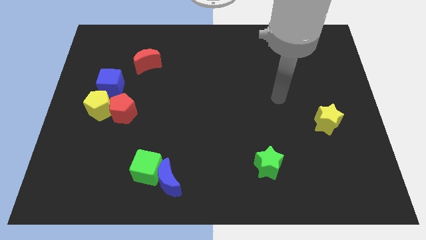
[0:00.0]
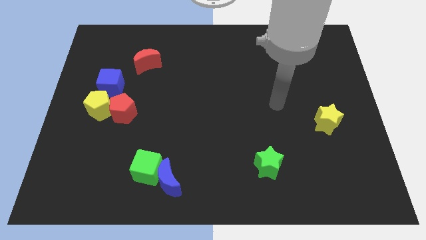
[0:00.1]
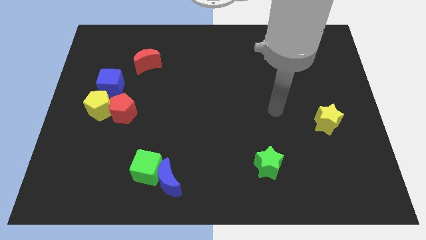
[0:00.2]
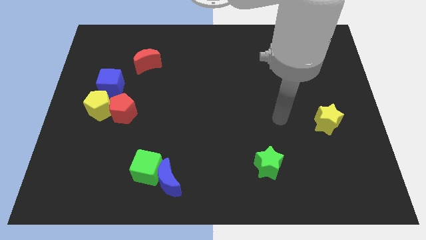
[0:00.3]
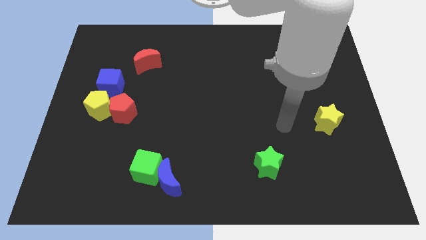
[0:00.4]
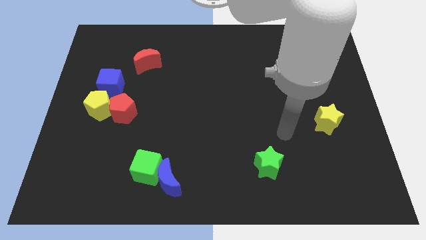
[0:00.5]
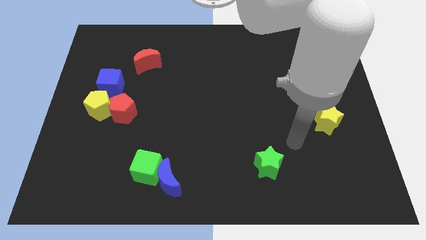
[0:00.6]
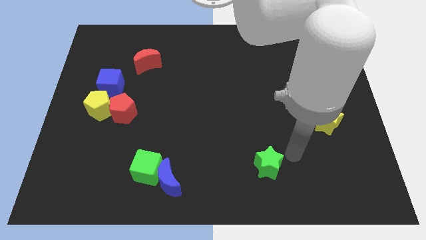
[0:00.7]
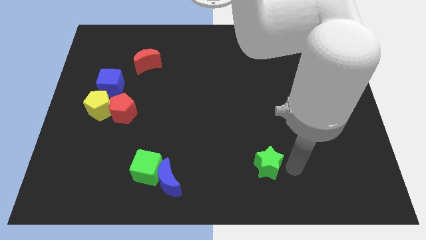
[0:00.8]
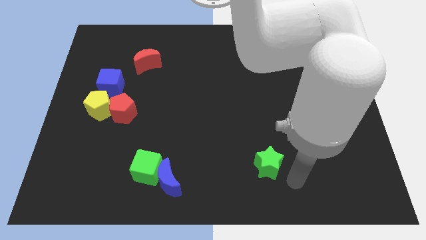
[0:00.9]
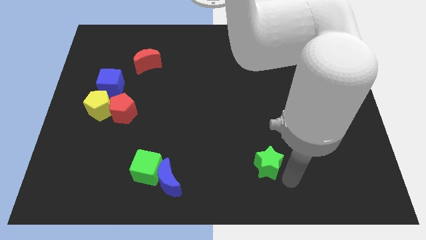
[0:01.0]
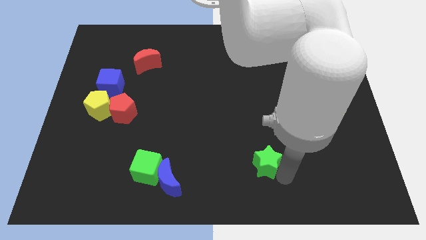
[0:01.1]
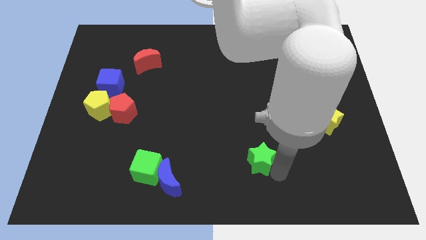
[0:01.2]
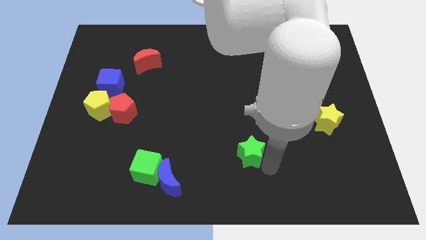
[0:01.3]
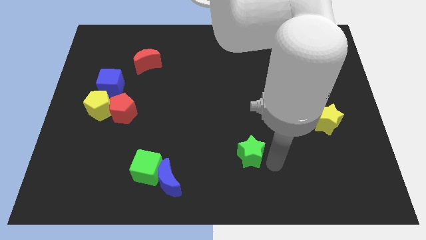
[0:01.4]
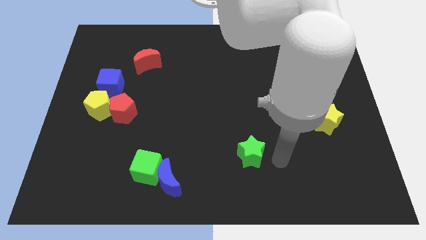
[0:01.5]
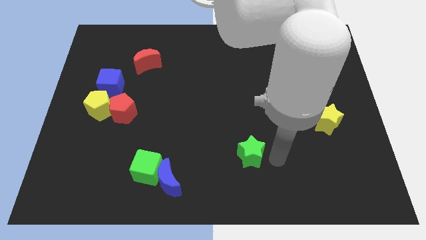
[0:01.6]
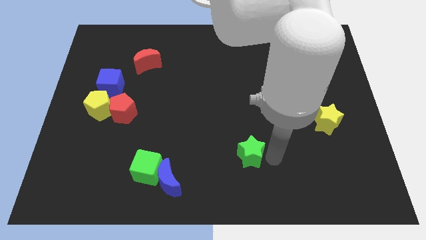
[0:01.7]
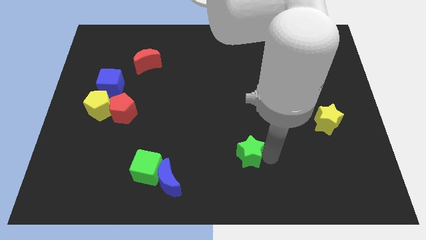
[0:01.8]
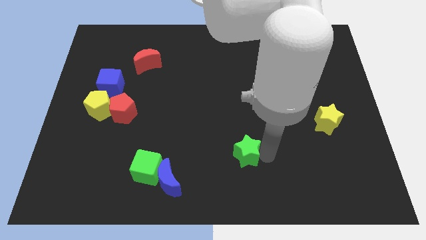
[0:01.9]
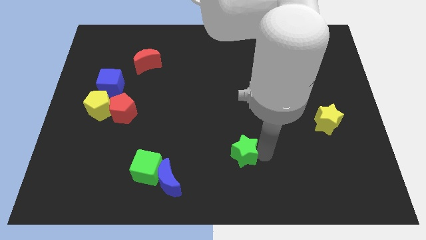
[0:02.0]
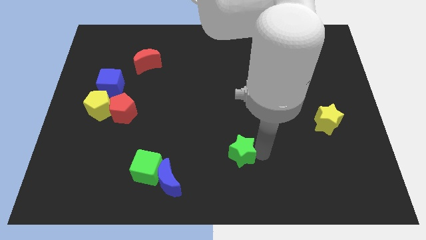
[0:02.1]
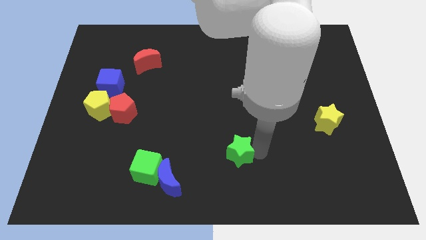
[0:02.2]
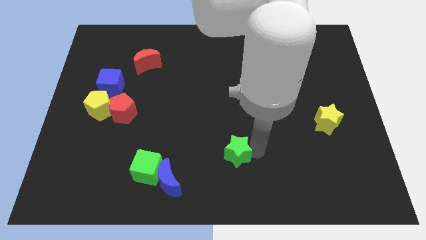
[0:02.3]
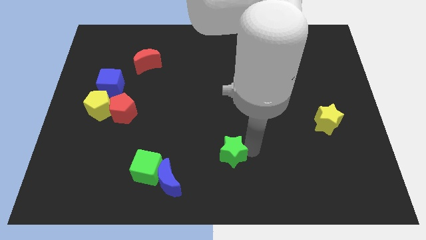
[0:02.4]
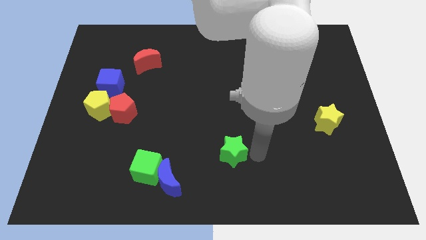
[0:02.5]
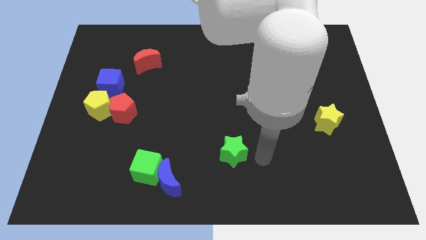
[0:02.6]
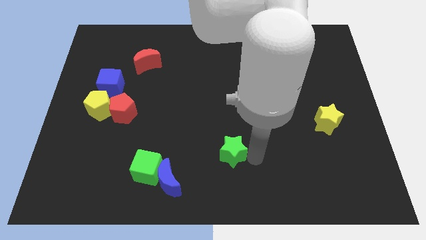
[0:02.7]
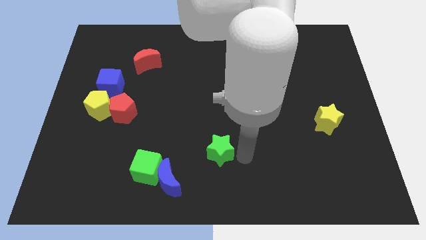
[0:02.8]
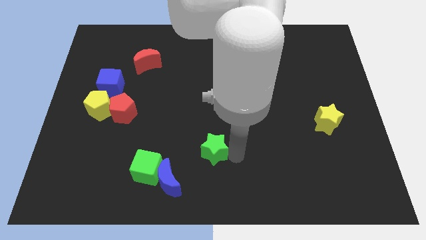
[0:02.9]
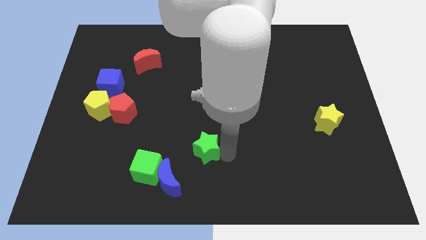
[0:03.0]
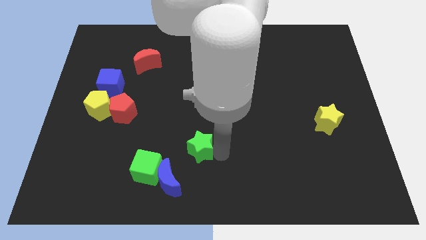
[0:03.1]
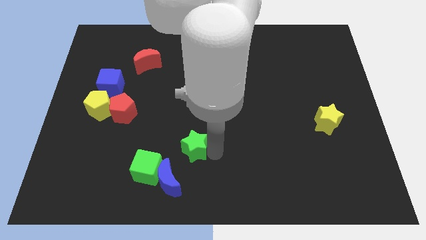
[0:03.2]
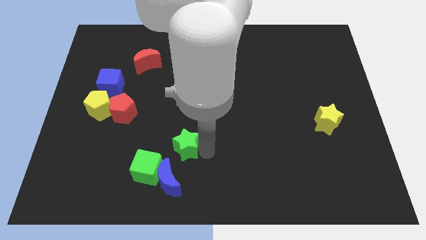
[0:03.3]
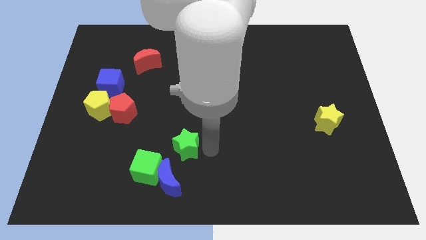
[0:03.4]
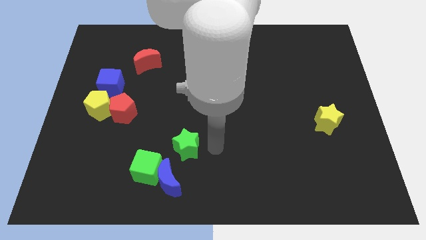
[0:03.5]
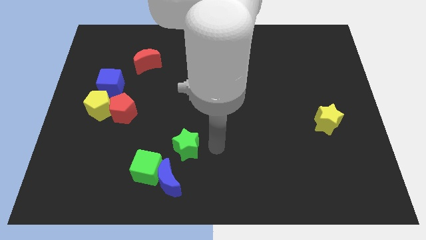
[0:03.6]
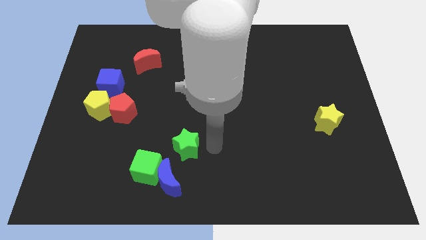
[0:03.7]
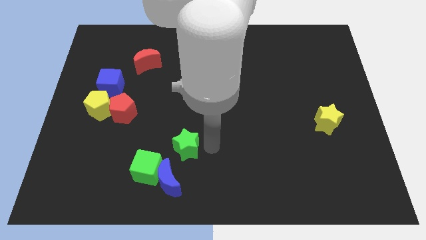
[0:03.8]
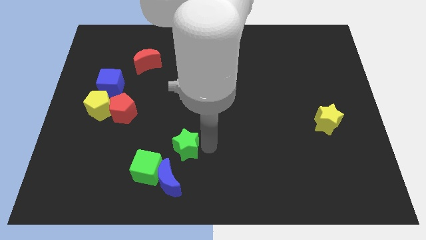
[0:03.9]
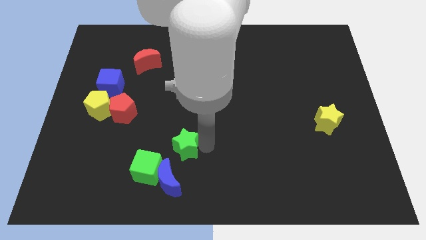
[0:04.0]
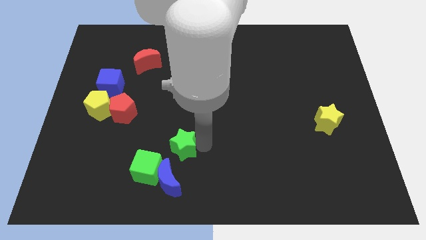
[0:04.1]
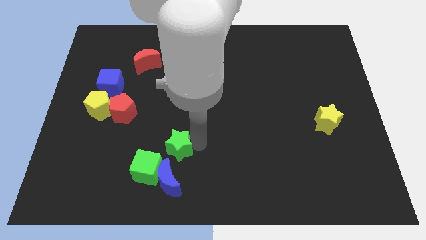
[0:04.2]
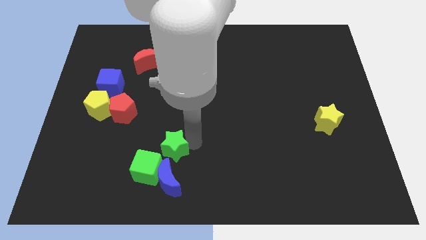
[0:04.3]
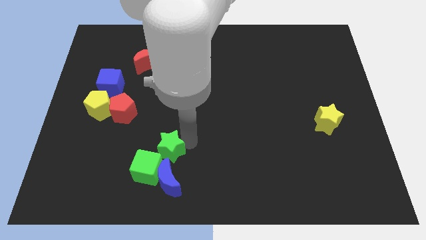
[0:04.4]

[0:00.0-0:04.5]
slide the green star to the left

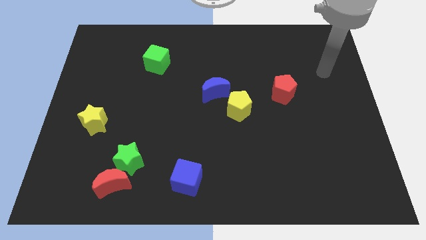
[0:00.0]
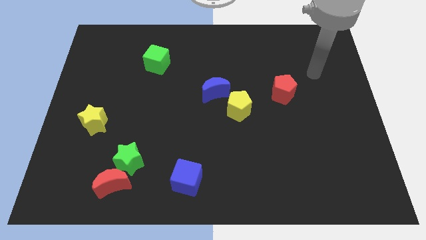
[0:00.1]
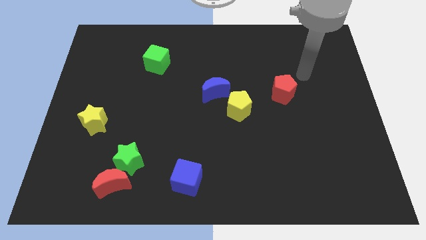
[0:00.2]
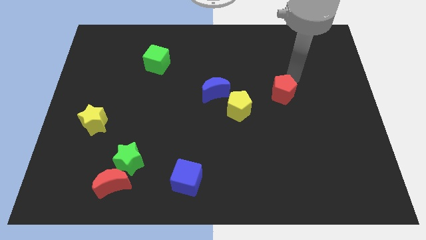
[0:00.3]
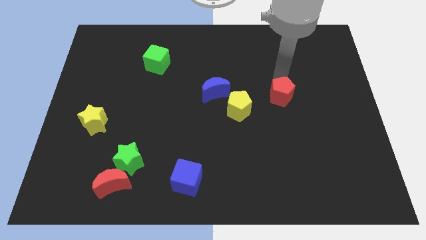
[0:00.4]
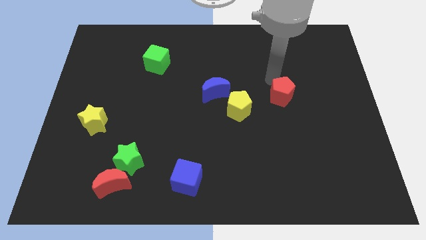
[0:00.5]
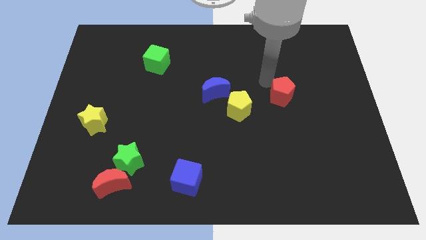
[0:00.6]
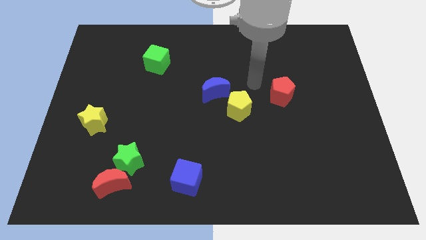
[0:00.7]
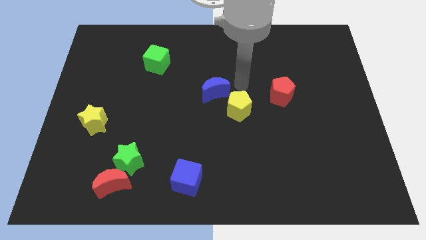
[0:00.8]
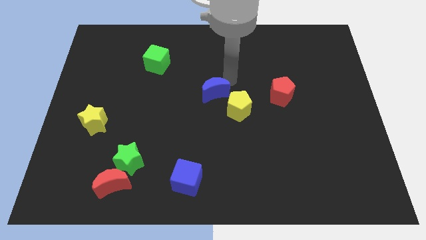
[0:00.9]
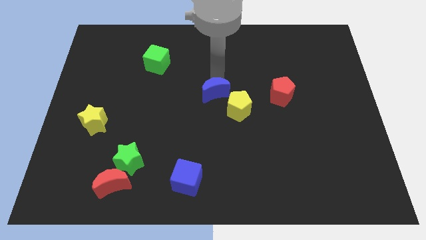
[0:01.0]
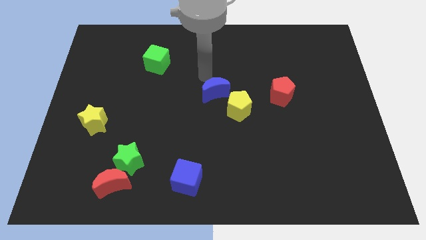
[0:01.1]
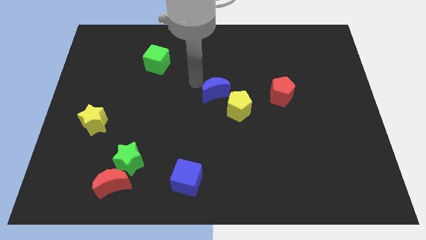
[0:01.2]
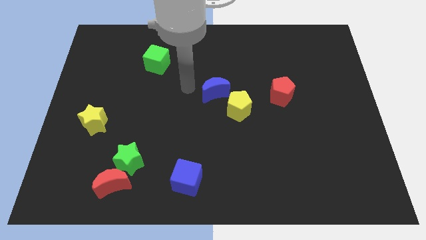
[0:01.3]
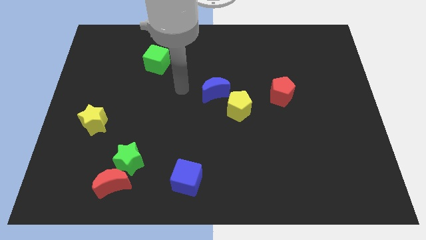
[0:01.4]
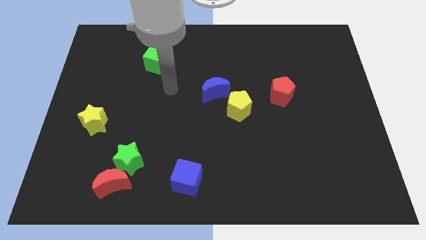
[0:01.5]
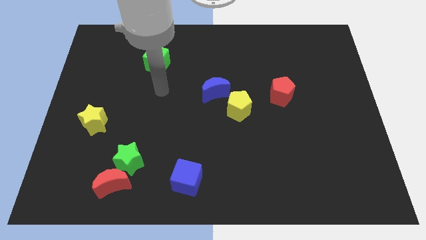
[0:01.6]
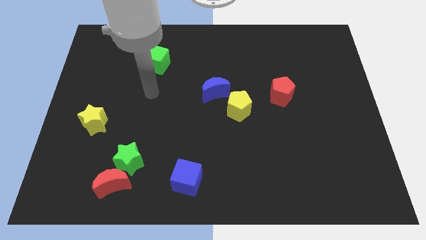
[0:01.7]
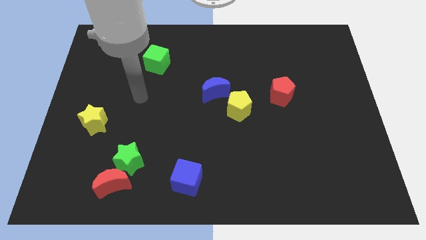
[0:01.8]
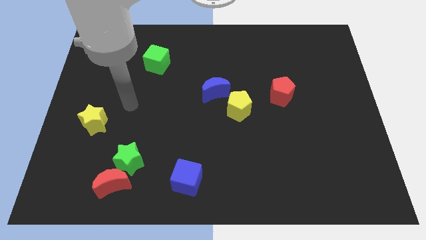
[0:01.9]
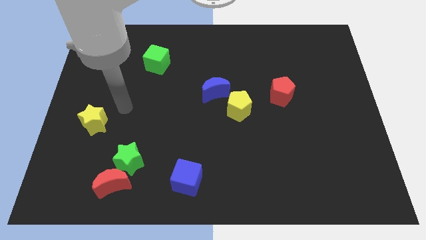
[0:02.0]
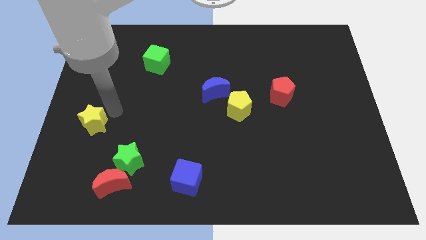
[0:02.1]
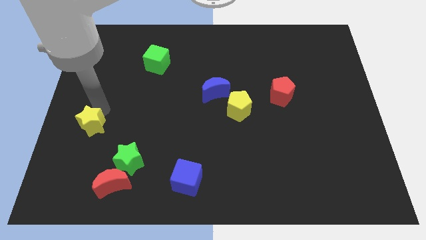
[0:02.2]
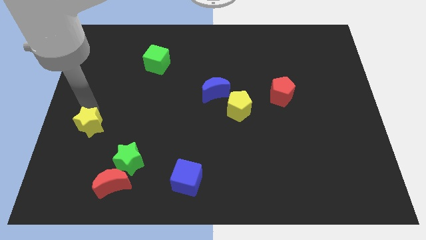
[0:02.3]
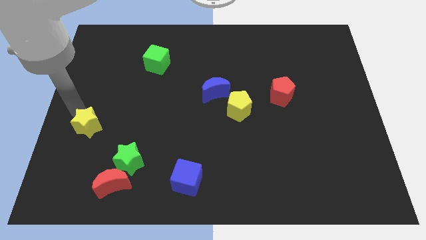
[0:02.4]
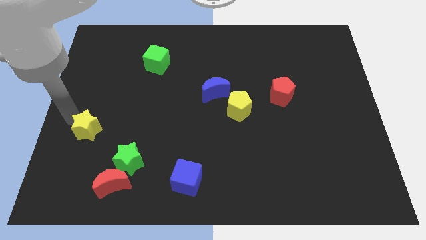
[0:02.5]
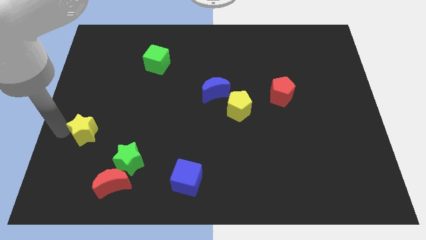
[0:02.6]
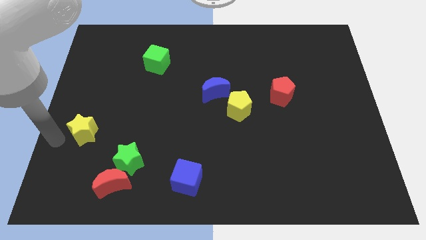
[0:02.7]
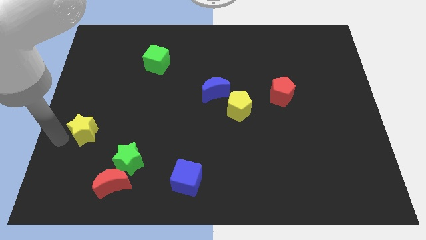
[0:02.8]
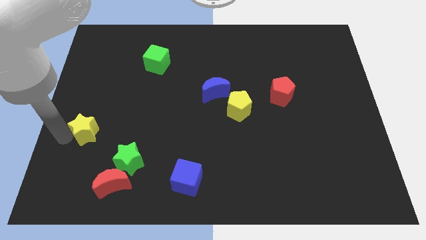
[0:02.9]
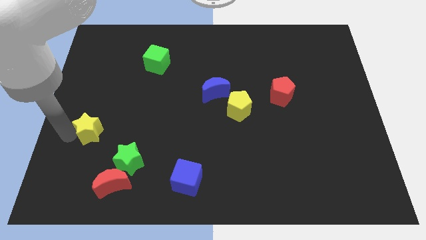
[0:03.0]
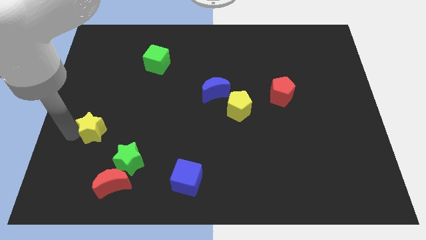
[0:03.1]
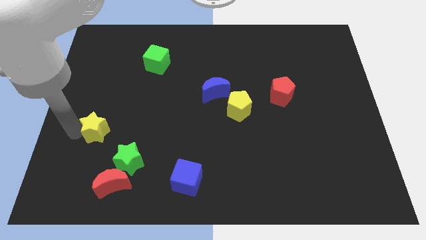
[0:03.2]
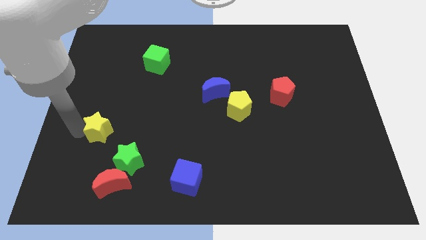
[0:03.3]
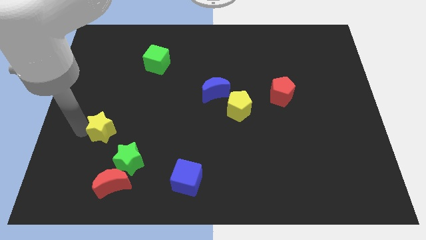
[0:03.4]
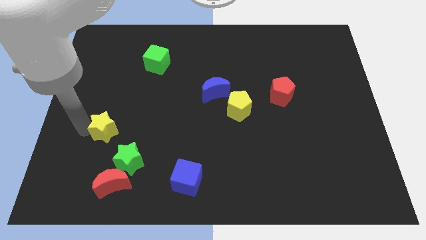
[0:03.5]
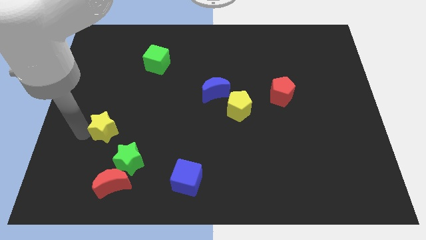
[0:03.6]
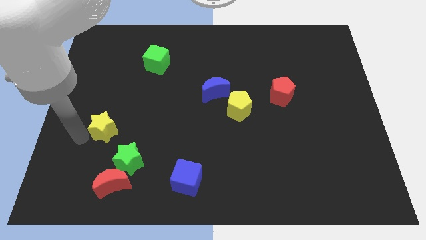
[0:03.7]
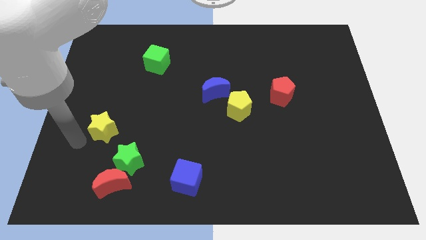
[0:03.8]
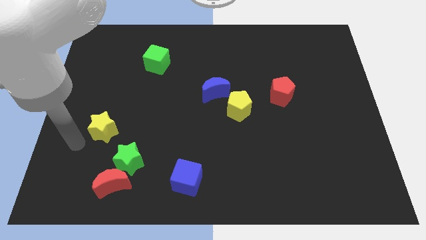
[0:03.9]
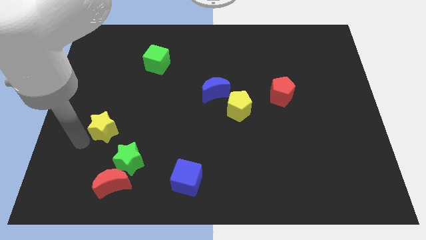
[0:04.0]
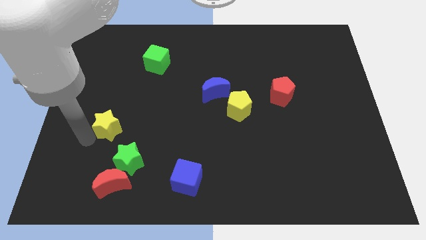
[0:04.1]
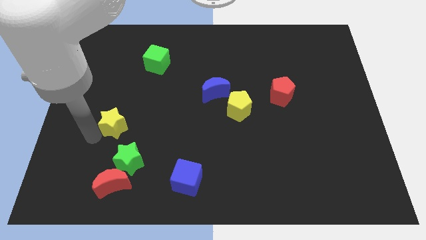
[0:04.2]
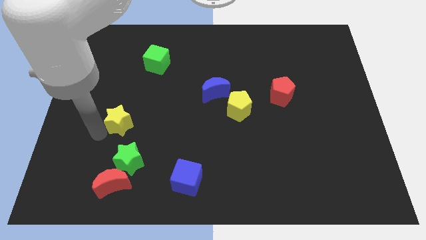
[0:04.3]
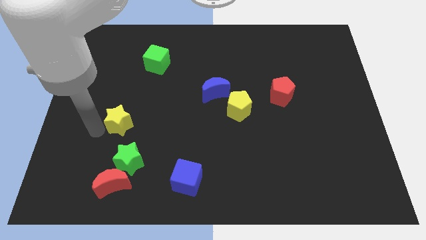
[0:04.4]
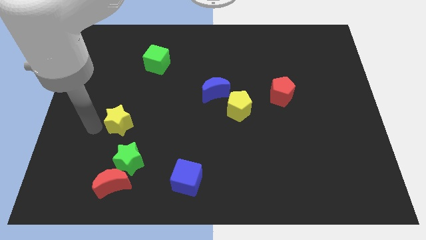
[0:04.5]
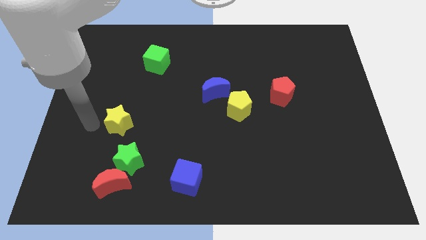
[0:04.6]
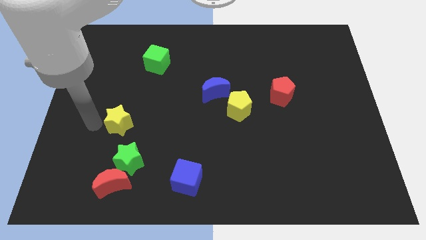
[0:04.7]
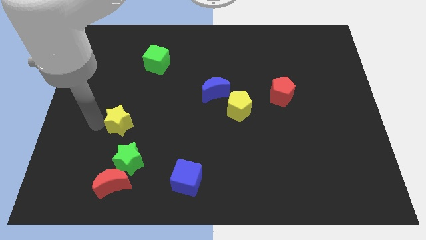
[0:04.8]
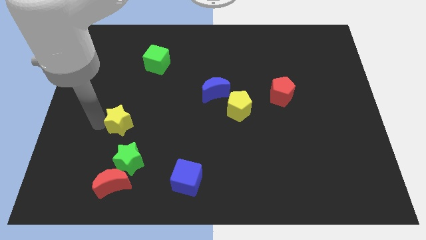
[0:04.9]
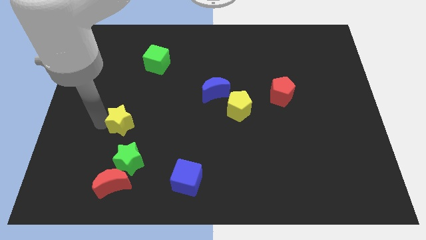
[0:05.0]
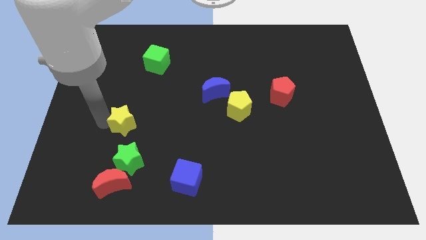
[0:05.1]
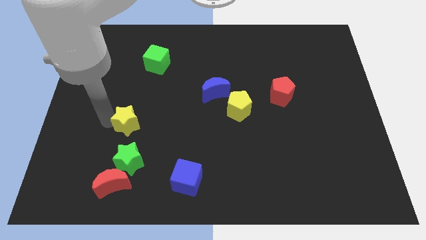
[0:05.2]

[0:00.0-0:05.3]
move the yellow star a bit to the right
